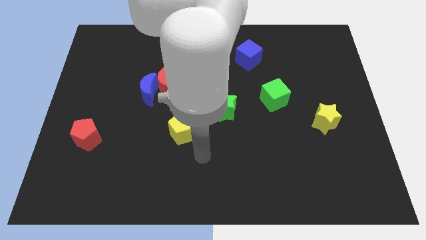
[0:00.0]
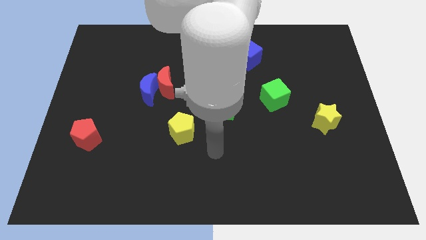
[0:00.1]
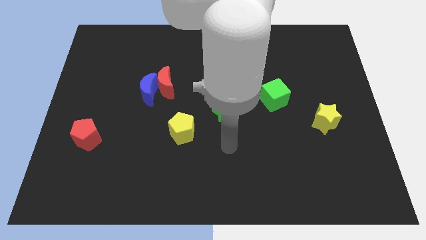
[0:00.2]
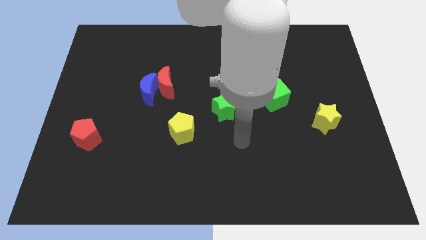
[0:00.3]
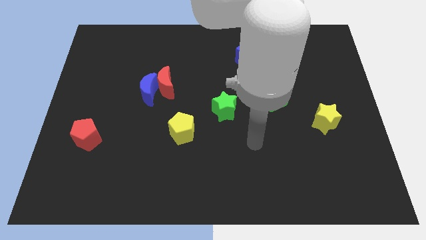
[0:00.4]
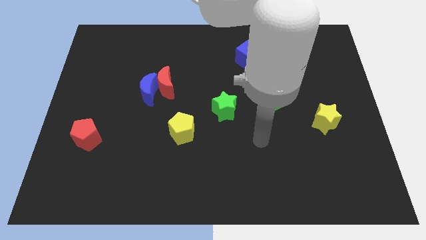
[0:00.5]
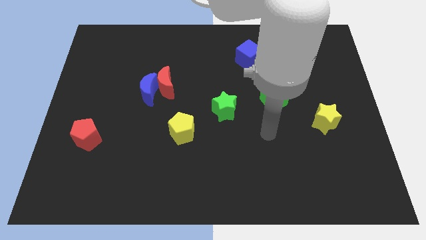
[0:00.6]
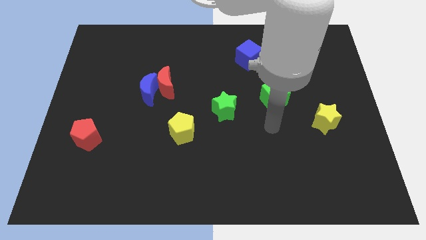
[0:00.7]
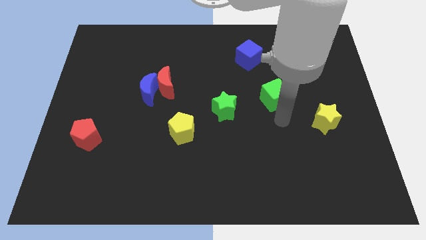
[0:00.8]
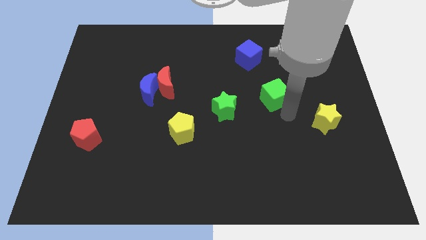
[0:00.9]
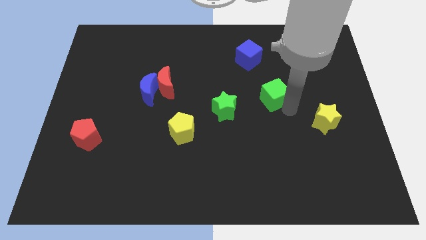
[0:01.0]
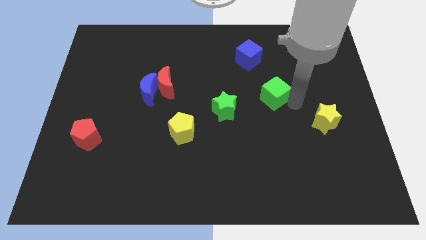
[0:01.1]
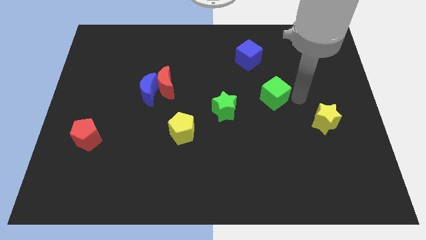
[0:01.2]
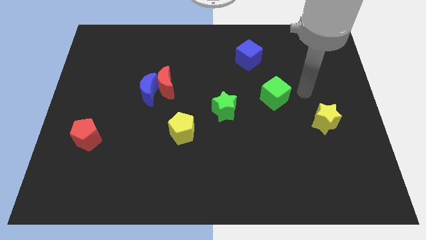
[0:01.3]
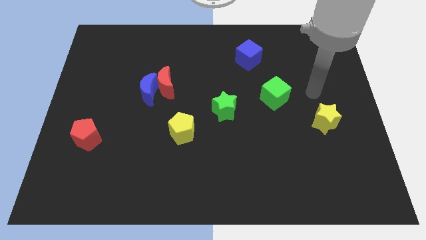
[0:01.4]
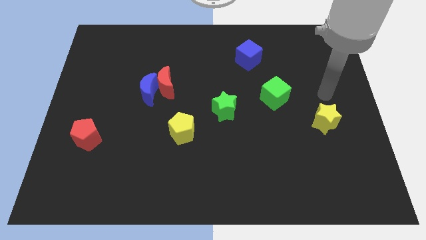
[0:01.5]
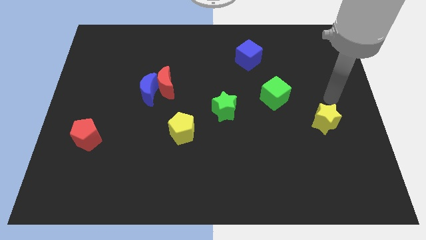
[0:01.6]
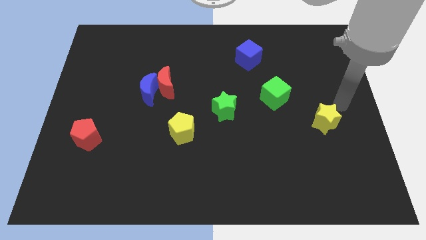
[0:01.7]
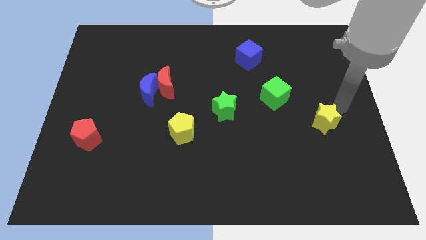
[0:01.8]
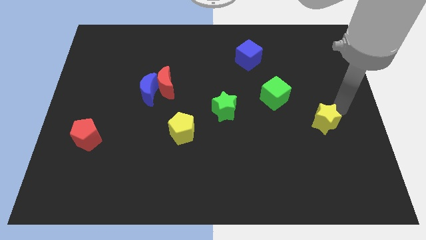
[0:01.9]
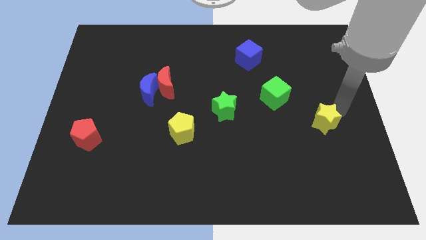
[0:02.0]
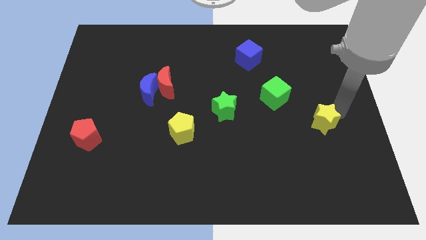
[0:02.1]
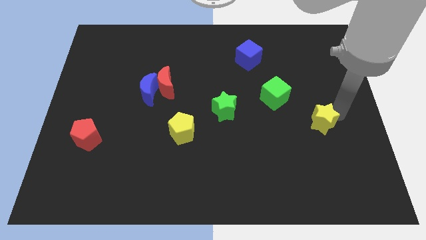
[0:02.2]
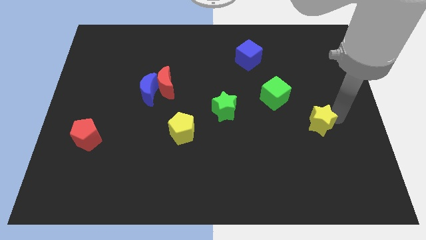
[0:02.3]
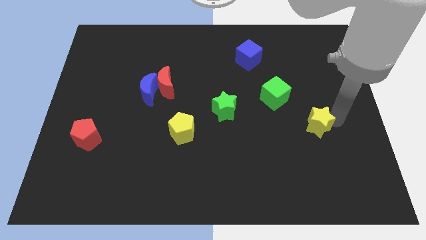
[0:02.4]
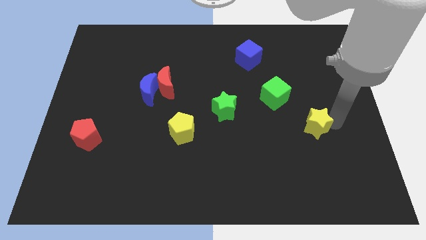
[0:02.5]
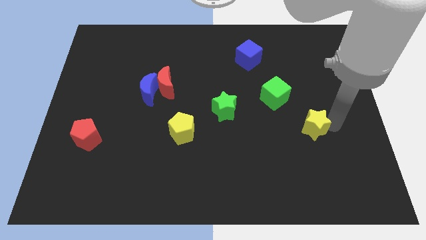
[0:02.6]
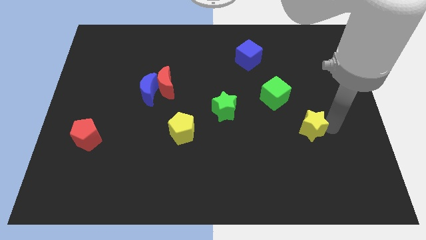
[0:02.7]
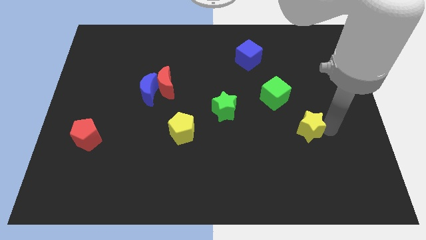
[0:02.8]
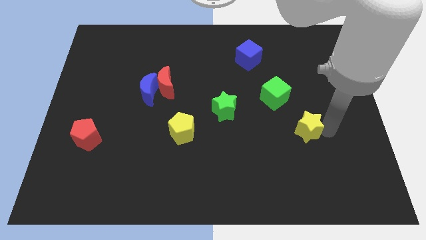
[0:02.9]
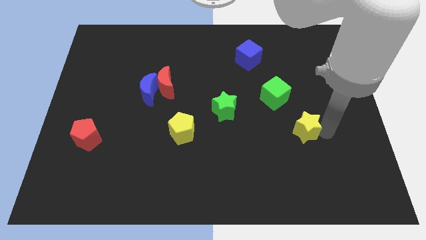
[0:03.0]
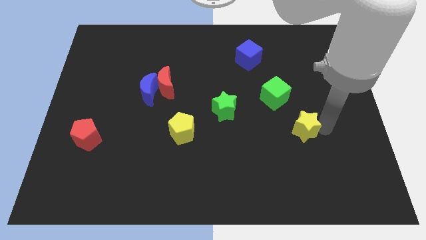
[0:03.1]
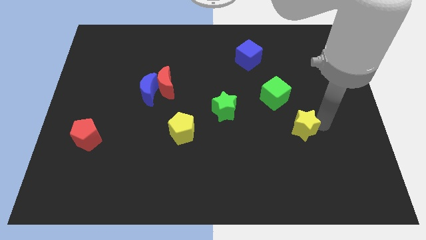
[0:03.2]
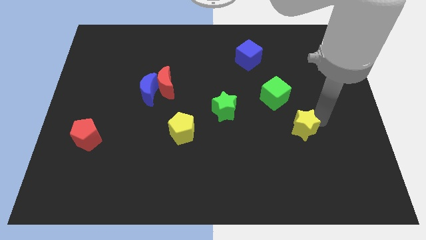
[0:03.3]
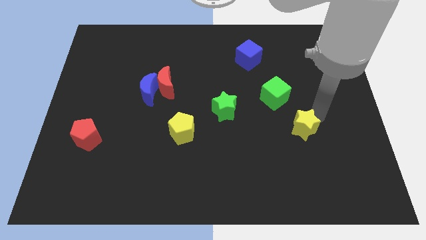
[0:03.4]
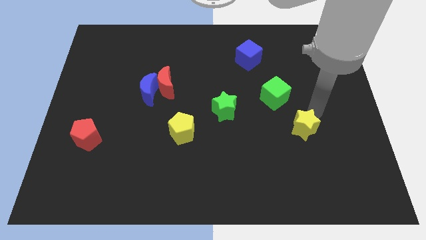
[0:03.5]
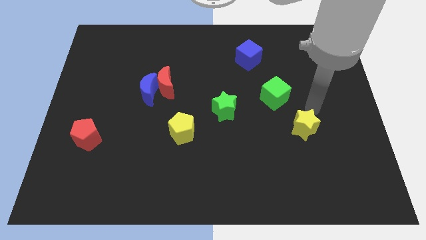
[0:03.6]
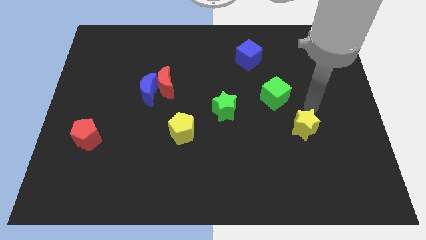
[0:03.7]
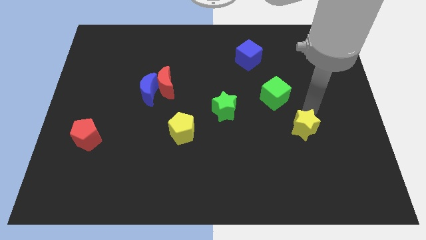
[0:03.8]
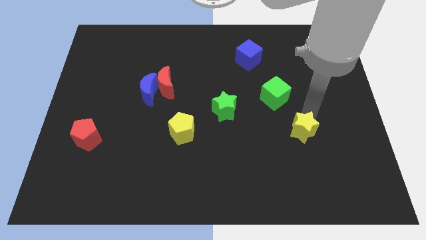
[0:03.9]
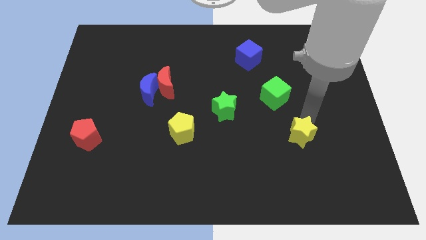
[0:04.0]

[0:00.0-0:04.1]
slightly push the yellow star downwards and then left

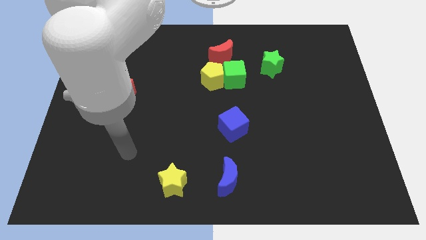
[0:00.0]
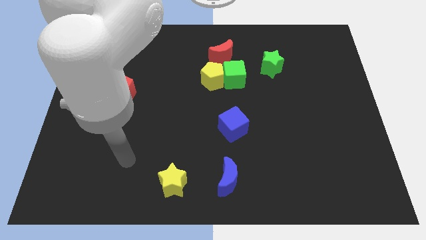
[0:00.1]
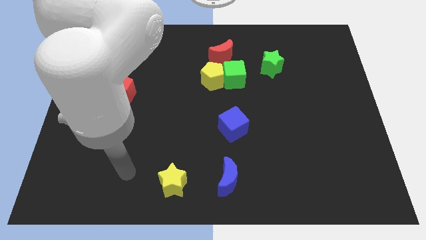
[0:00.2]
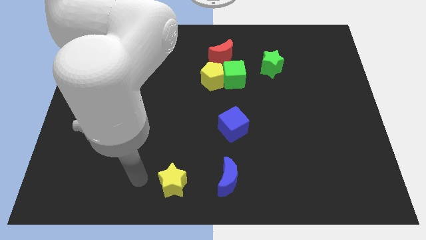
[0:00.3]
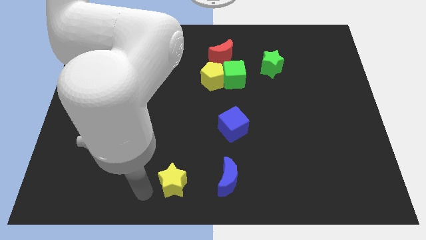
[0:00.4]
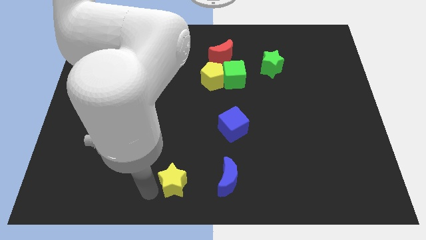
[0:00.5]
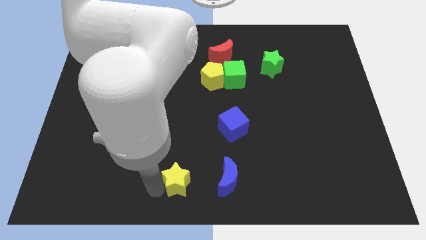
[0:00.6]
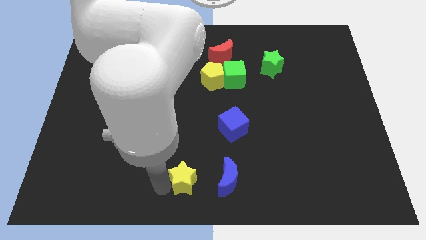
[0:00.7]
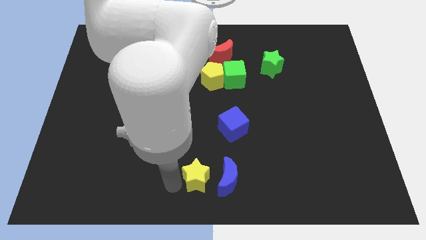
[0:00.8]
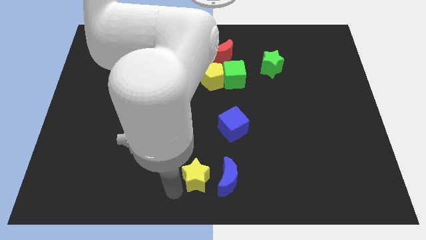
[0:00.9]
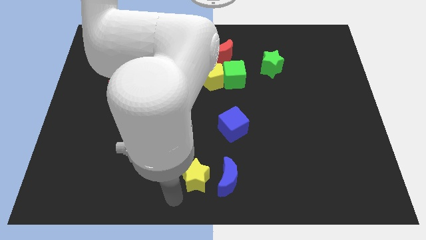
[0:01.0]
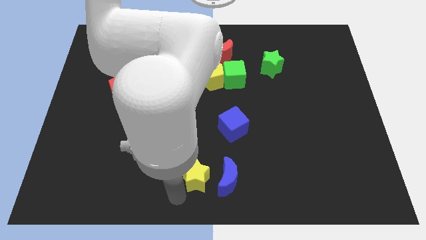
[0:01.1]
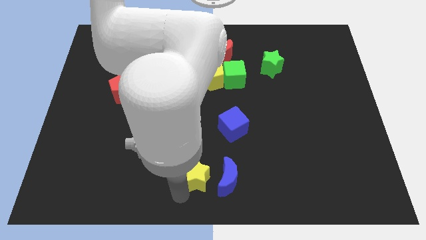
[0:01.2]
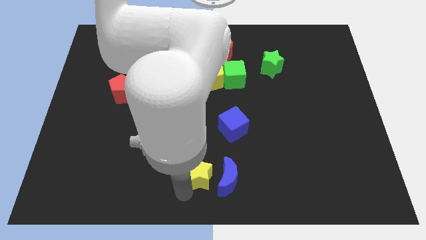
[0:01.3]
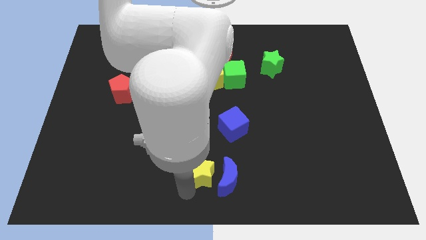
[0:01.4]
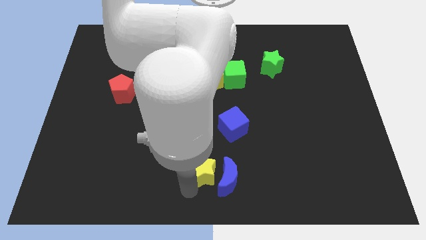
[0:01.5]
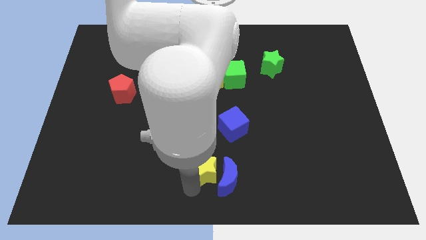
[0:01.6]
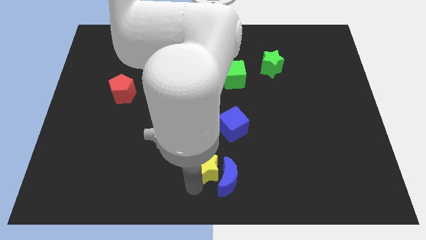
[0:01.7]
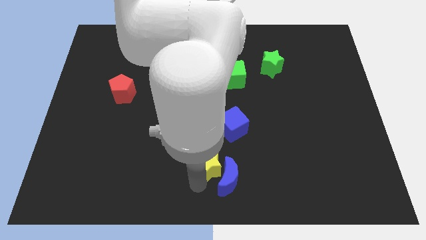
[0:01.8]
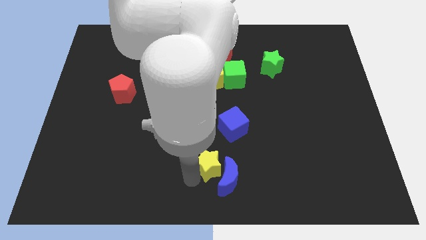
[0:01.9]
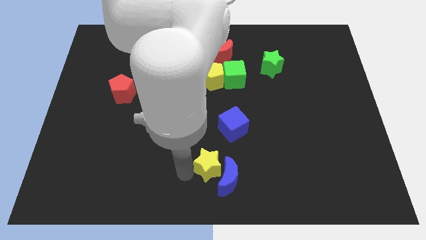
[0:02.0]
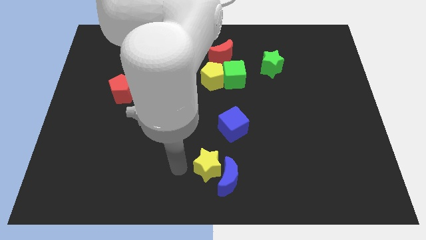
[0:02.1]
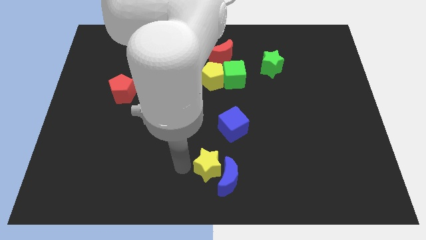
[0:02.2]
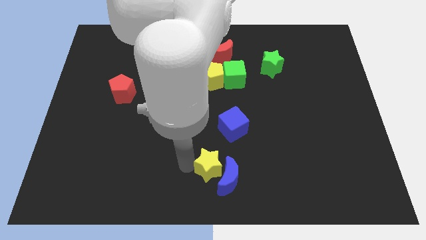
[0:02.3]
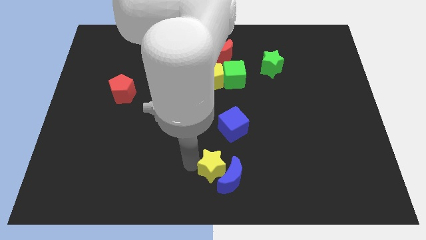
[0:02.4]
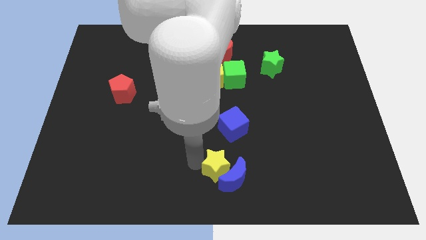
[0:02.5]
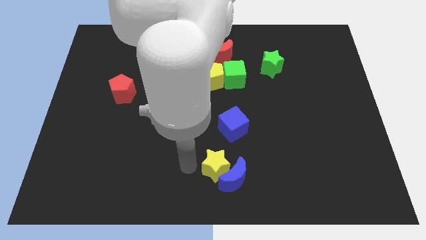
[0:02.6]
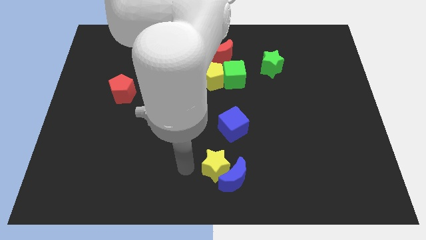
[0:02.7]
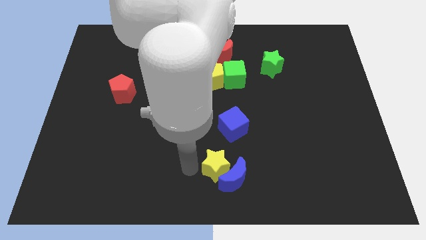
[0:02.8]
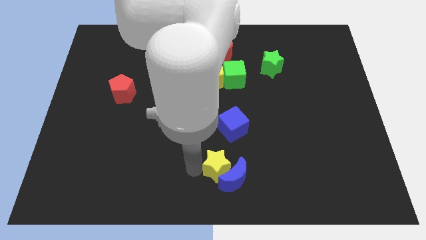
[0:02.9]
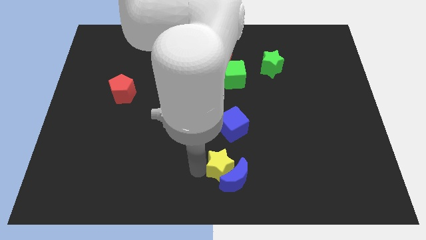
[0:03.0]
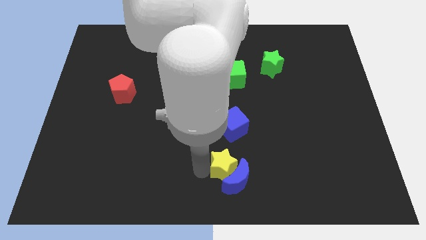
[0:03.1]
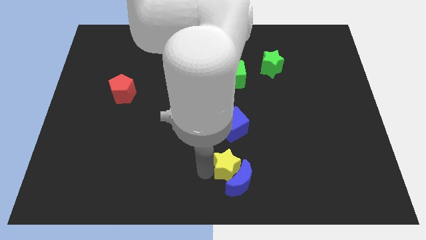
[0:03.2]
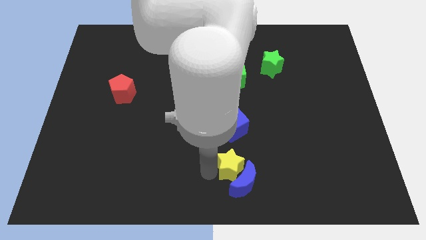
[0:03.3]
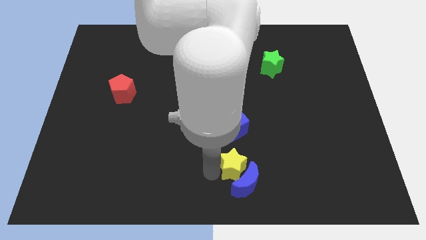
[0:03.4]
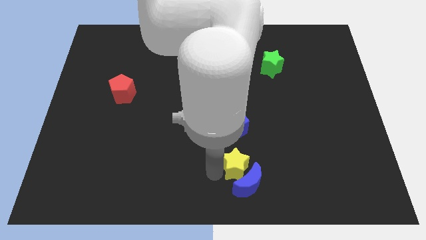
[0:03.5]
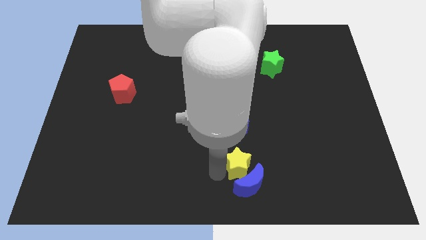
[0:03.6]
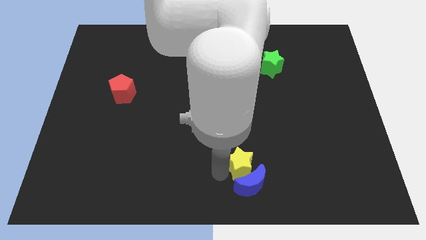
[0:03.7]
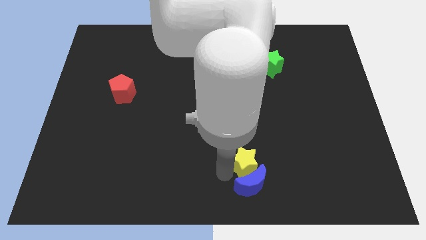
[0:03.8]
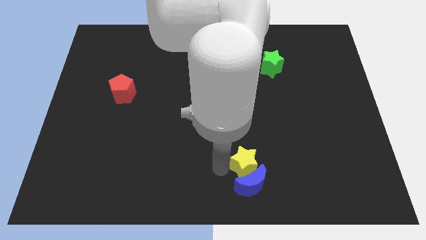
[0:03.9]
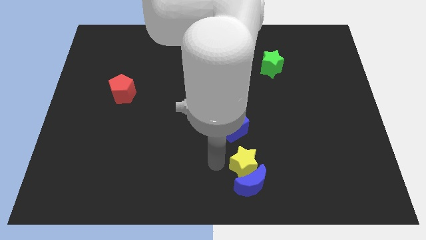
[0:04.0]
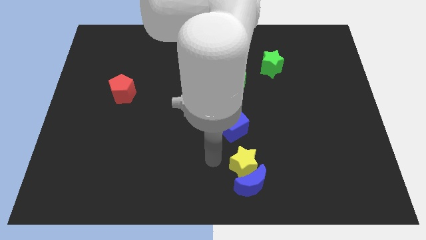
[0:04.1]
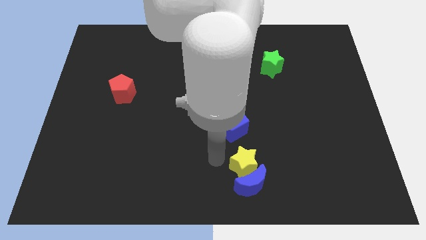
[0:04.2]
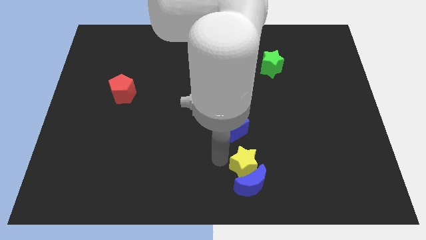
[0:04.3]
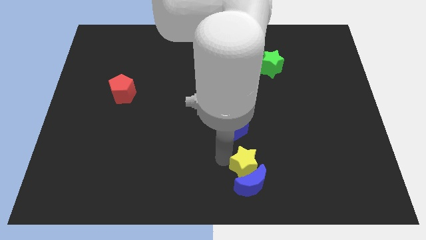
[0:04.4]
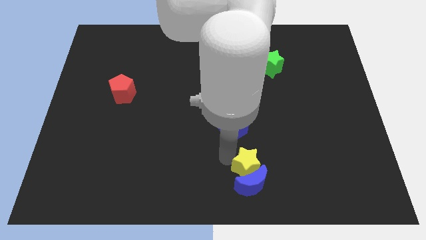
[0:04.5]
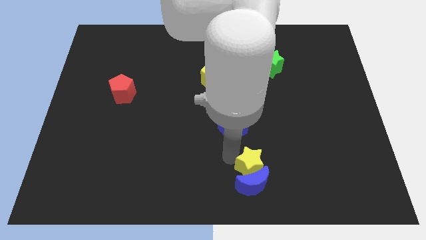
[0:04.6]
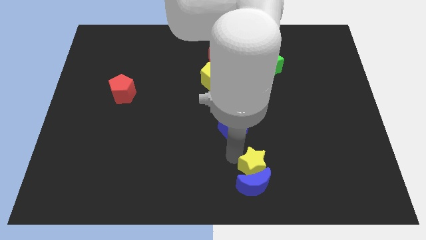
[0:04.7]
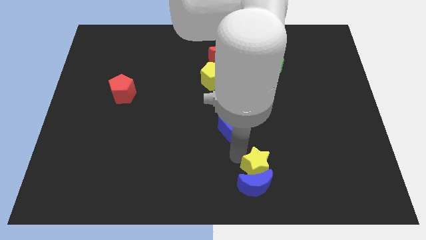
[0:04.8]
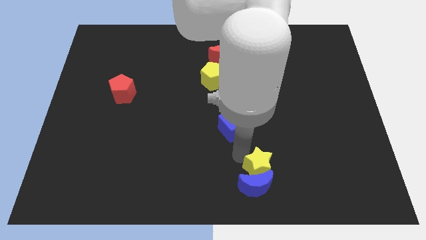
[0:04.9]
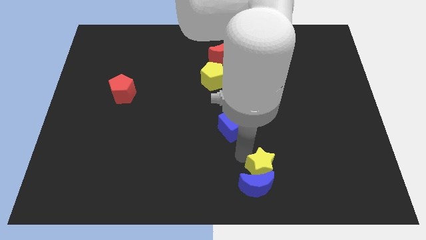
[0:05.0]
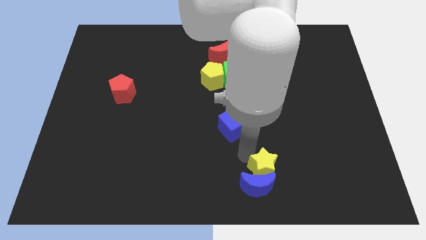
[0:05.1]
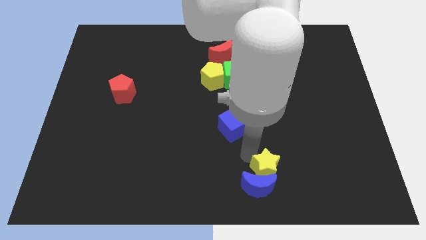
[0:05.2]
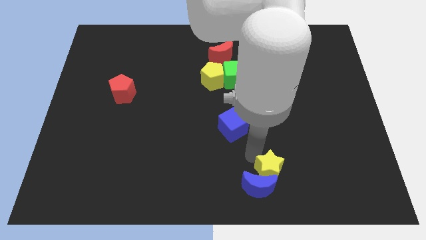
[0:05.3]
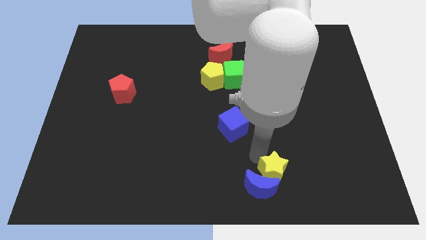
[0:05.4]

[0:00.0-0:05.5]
slide the yellow star right
